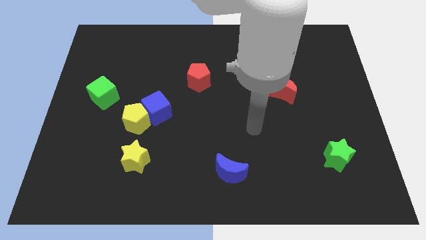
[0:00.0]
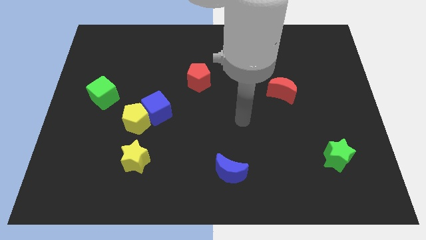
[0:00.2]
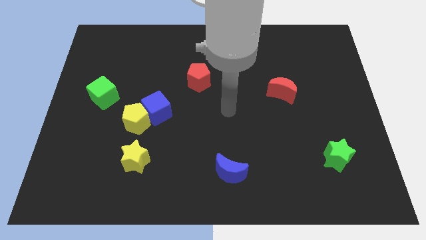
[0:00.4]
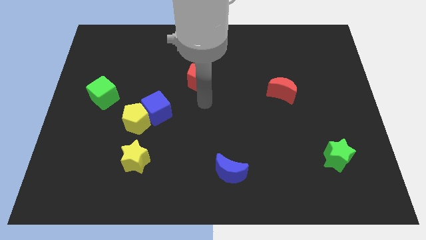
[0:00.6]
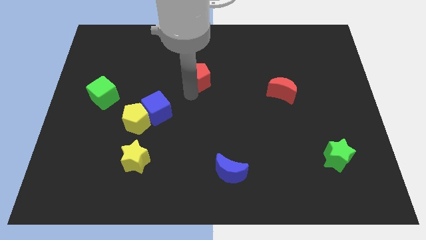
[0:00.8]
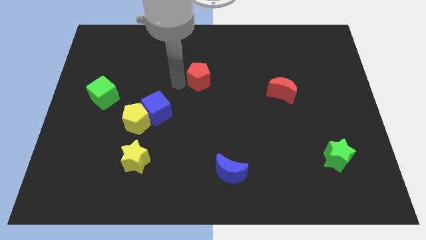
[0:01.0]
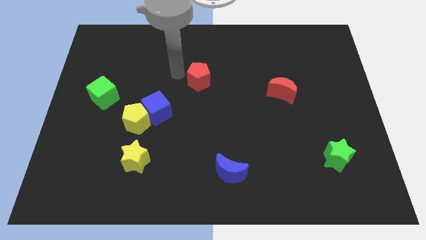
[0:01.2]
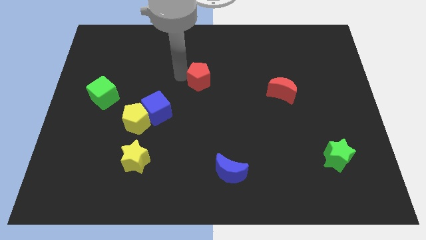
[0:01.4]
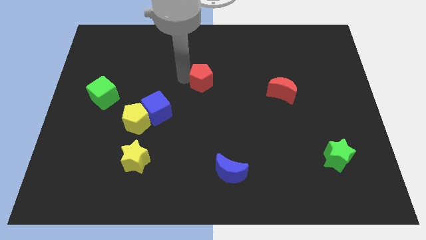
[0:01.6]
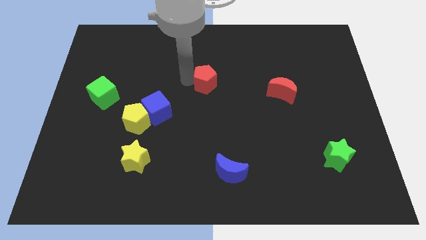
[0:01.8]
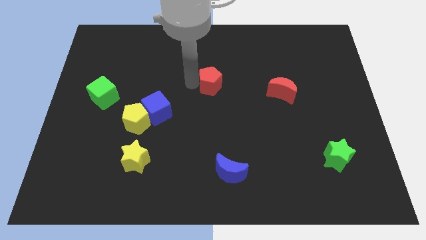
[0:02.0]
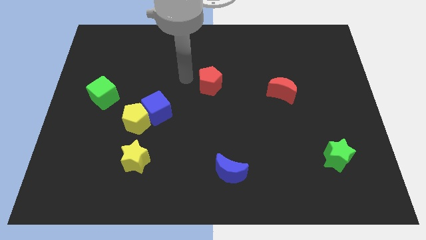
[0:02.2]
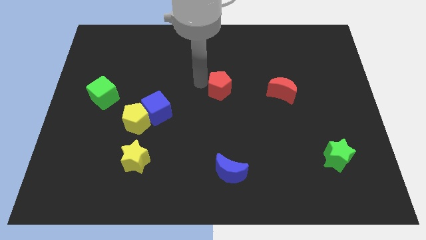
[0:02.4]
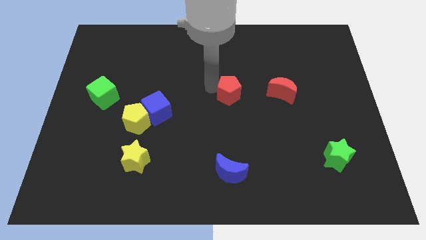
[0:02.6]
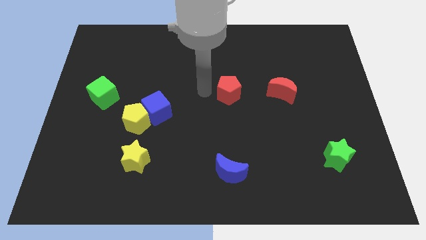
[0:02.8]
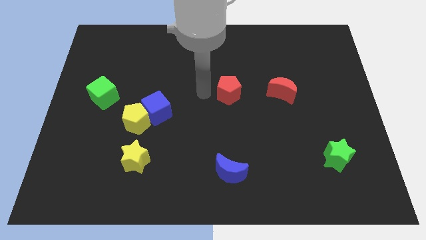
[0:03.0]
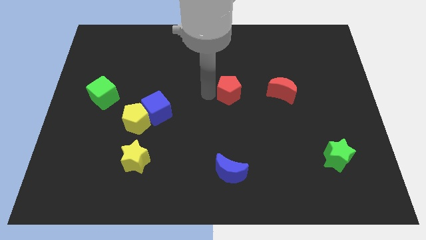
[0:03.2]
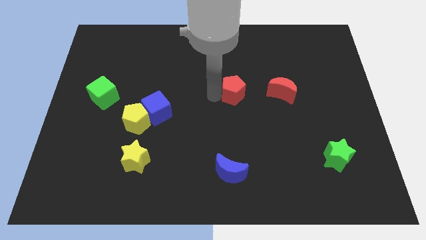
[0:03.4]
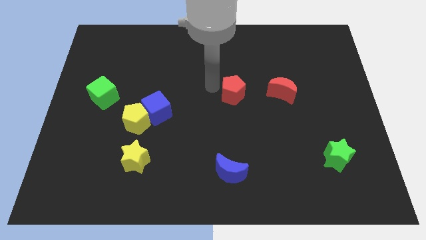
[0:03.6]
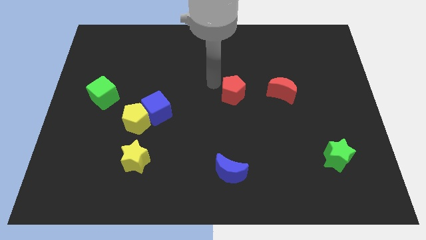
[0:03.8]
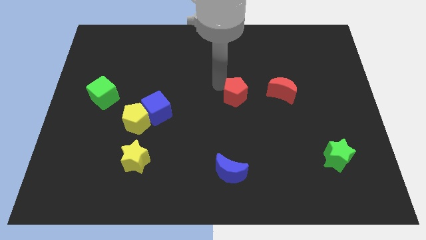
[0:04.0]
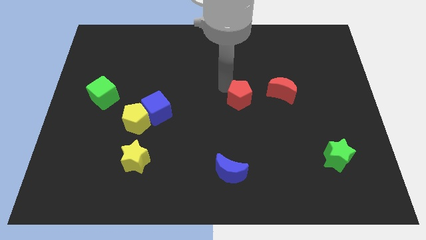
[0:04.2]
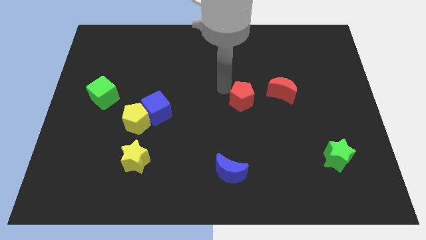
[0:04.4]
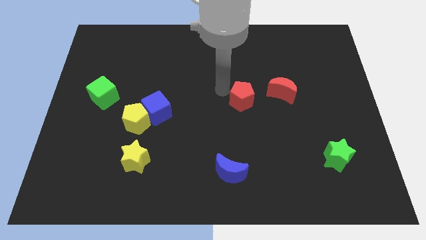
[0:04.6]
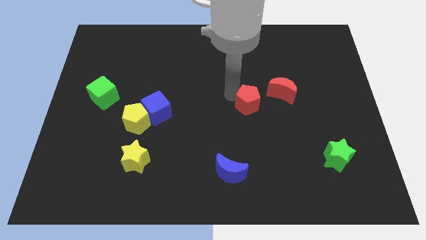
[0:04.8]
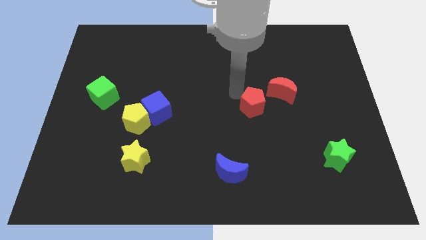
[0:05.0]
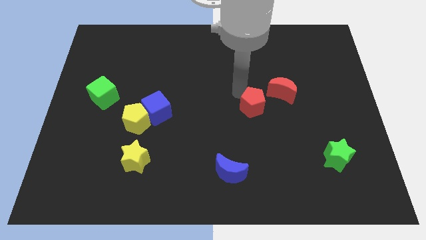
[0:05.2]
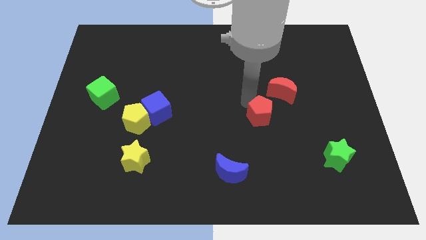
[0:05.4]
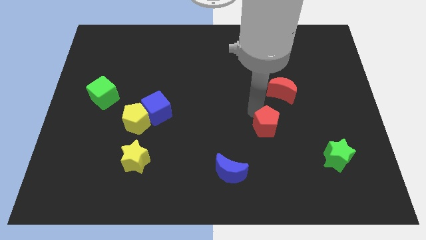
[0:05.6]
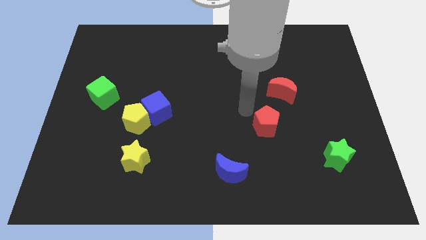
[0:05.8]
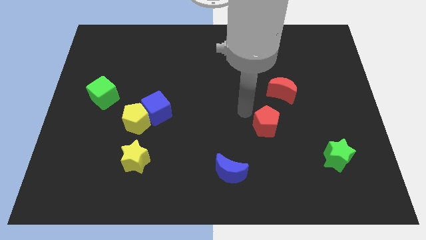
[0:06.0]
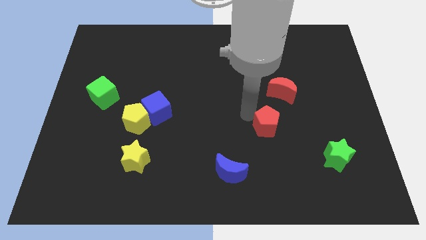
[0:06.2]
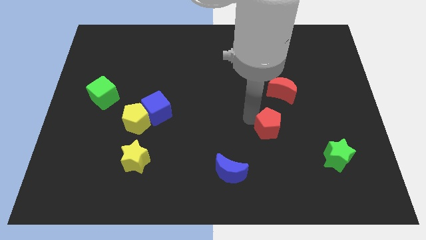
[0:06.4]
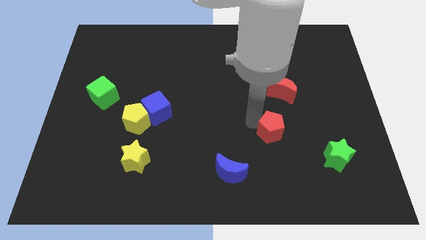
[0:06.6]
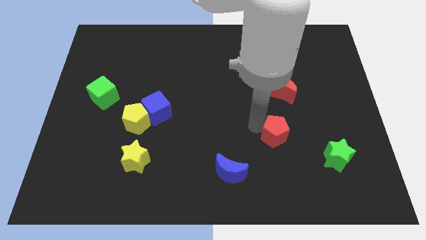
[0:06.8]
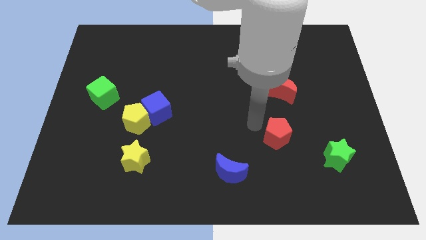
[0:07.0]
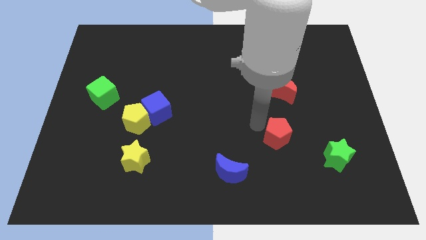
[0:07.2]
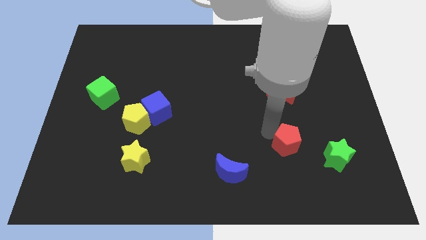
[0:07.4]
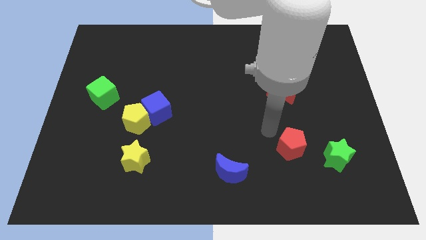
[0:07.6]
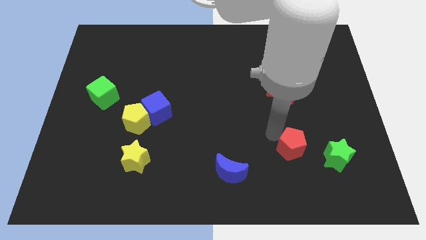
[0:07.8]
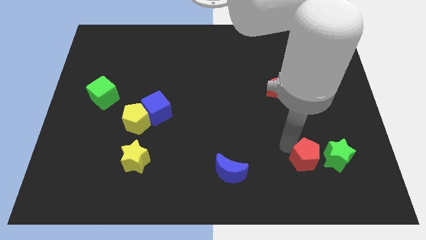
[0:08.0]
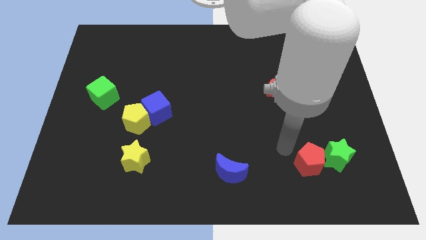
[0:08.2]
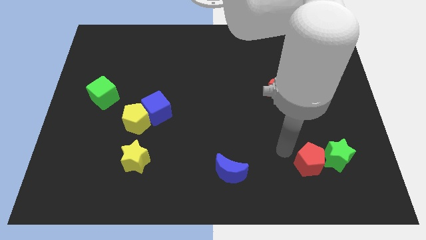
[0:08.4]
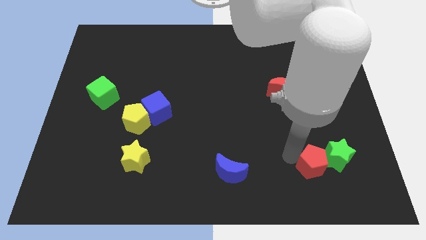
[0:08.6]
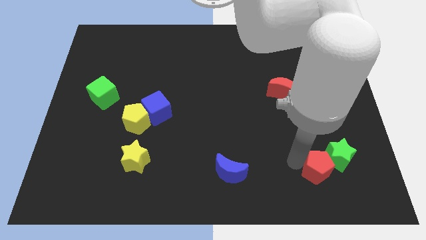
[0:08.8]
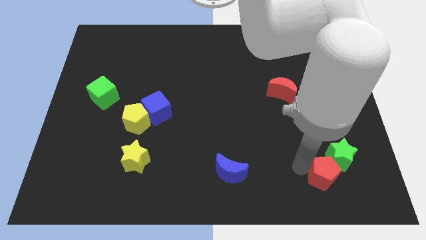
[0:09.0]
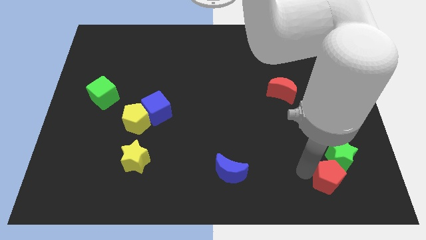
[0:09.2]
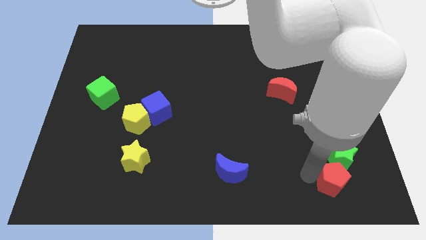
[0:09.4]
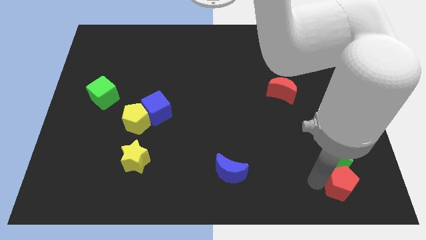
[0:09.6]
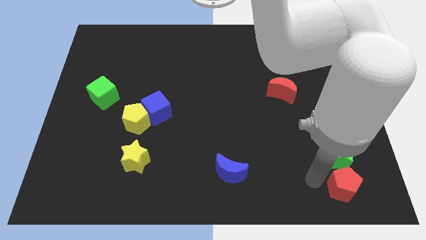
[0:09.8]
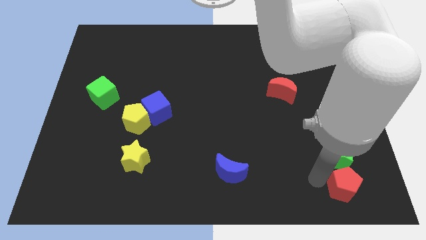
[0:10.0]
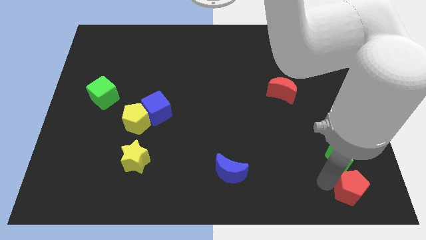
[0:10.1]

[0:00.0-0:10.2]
move the red pentagon to the bottom right of the board

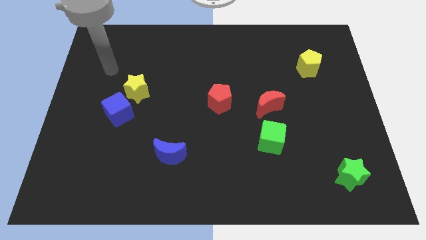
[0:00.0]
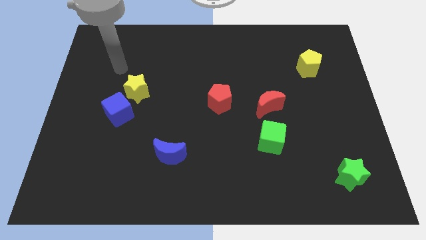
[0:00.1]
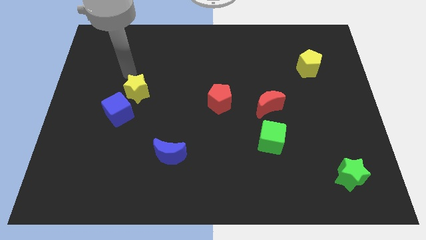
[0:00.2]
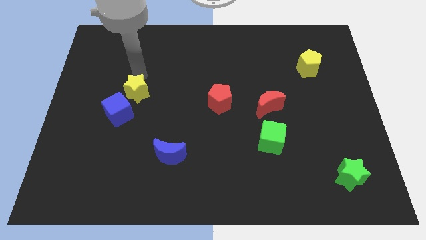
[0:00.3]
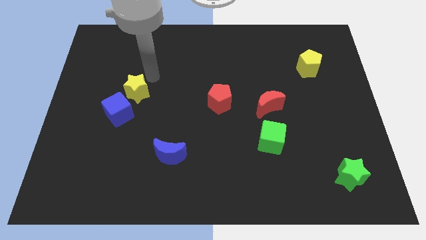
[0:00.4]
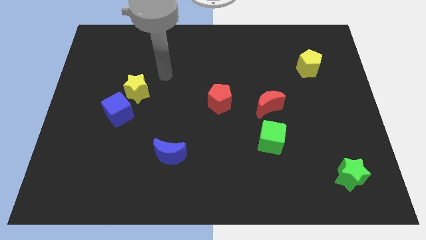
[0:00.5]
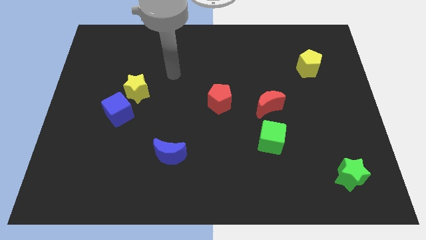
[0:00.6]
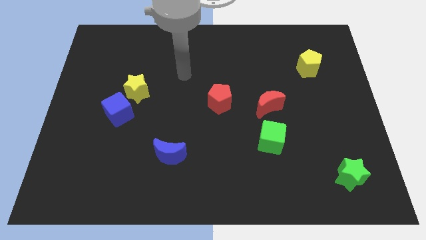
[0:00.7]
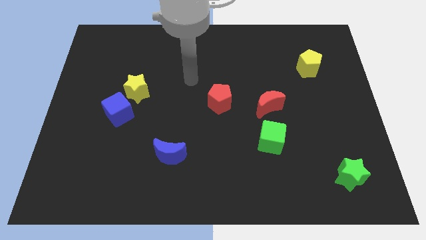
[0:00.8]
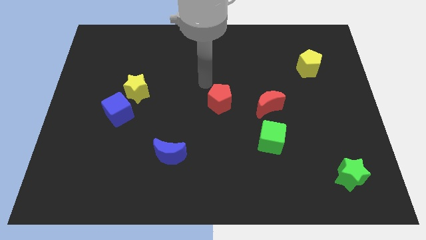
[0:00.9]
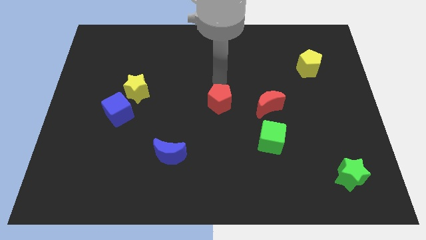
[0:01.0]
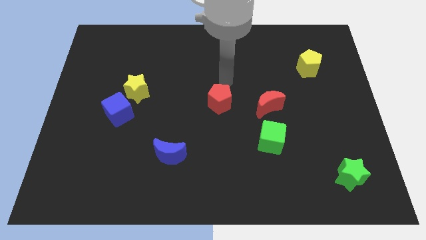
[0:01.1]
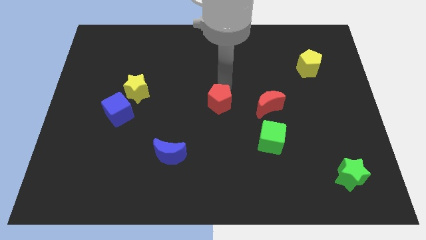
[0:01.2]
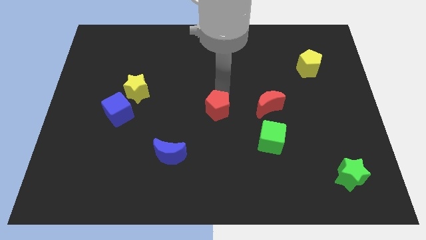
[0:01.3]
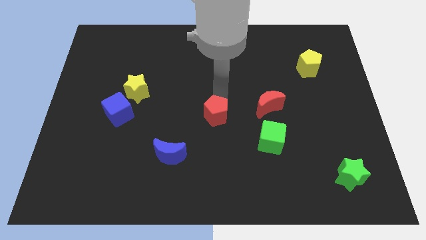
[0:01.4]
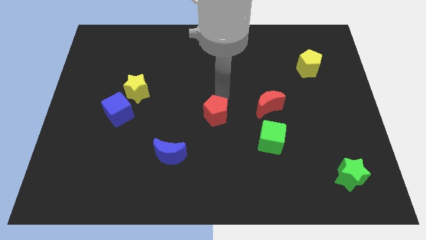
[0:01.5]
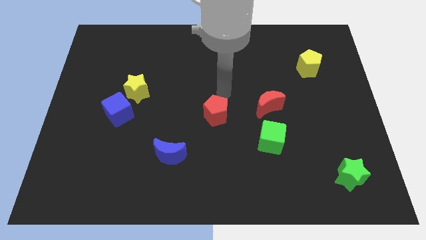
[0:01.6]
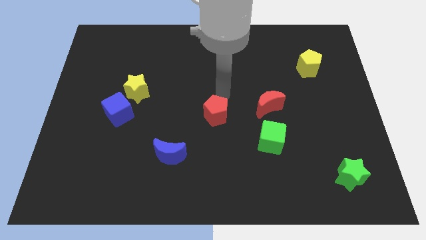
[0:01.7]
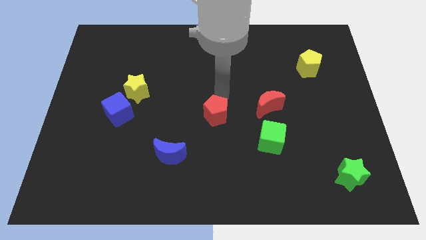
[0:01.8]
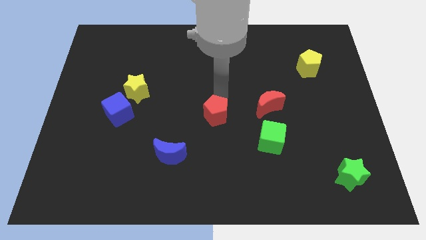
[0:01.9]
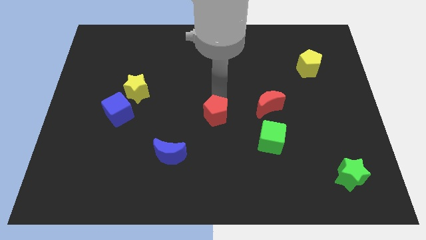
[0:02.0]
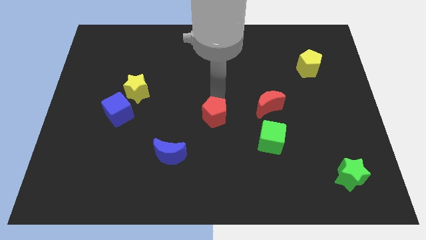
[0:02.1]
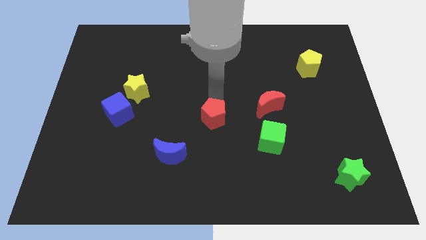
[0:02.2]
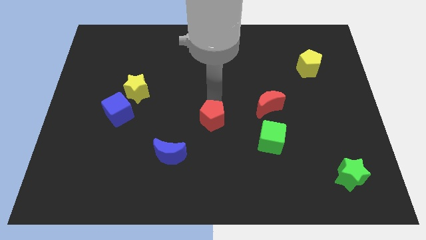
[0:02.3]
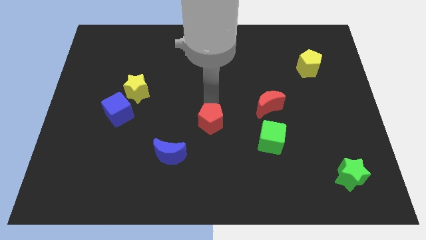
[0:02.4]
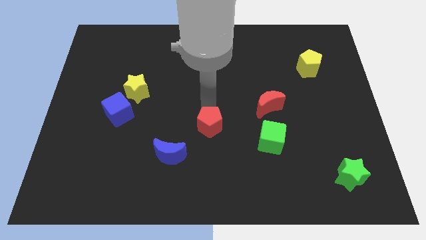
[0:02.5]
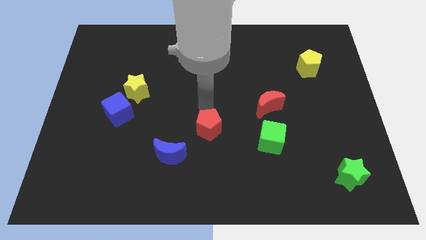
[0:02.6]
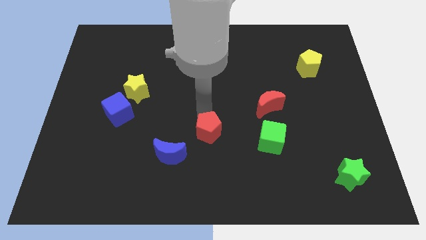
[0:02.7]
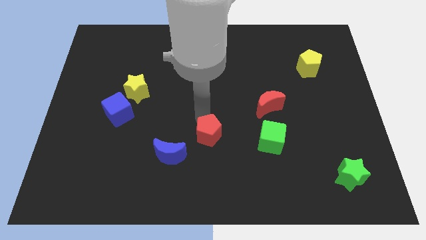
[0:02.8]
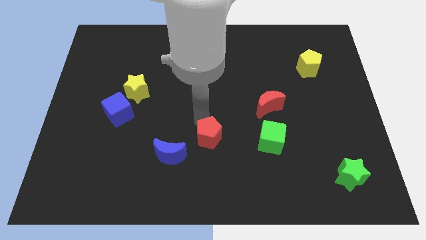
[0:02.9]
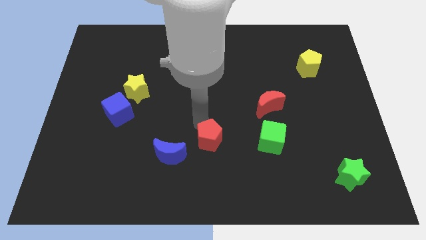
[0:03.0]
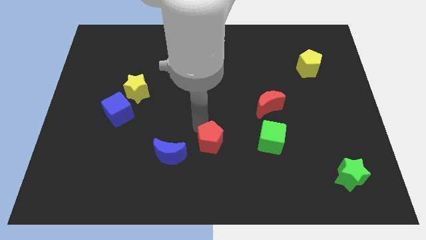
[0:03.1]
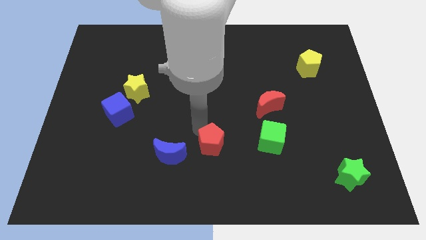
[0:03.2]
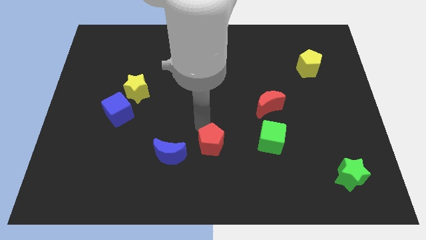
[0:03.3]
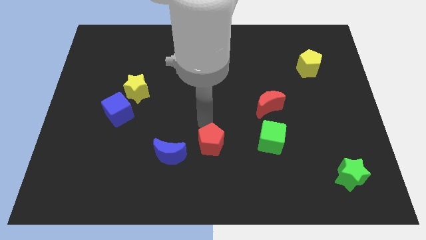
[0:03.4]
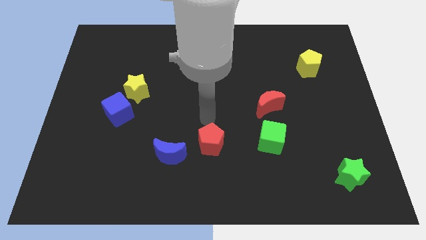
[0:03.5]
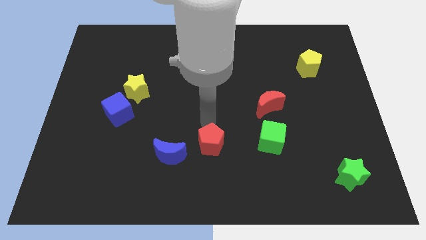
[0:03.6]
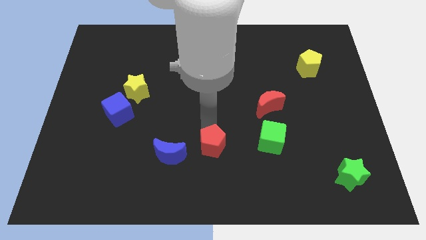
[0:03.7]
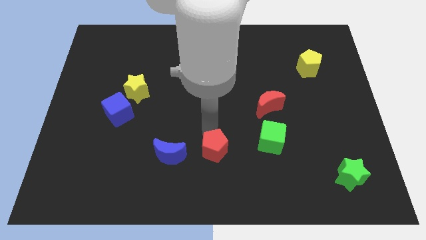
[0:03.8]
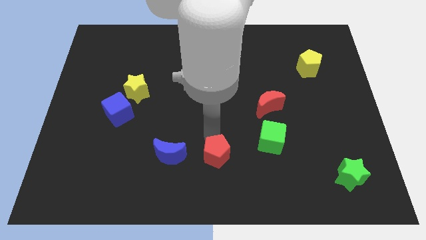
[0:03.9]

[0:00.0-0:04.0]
push the red pentagon to the bottom
